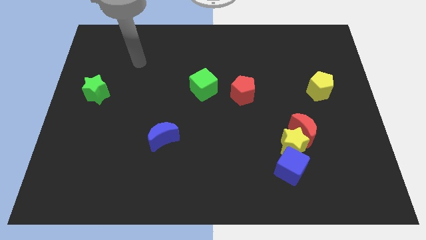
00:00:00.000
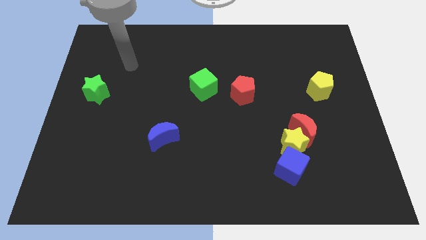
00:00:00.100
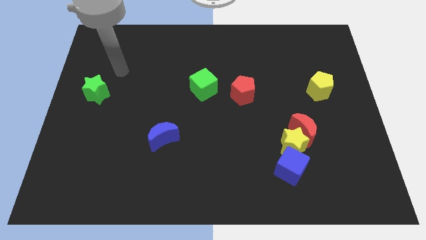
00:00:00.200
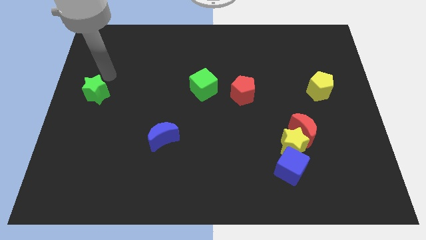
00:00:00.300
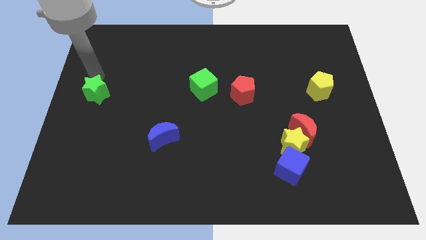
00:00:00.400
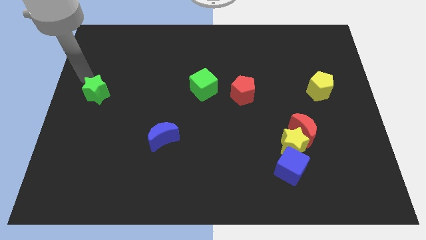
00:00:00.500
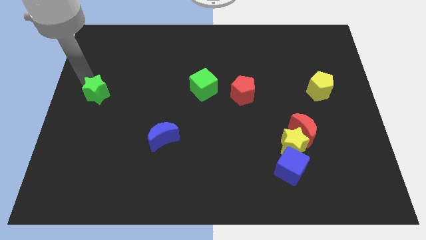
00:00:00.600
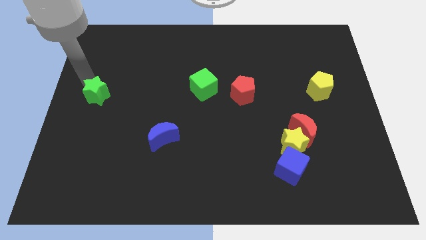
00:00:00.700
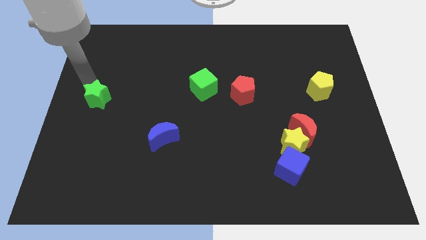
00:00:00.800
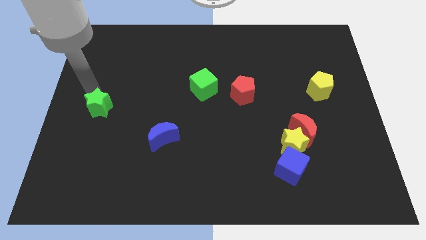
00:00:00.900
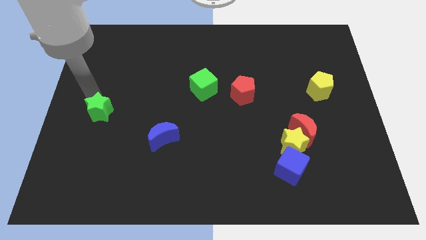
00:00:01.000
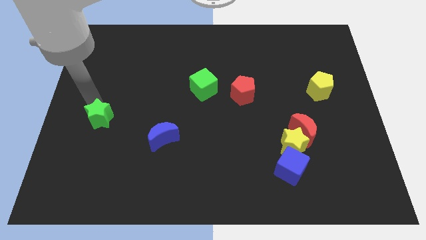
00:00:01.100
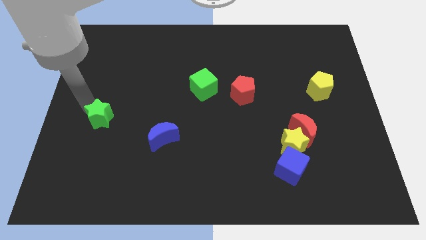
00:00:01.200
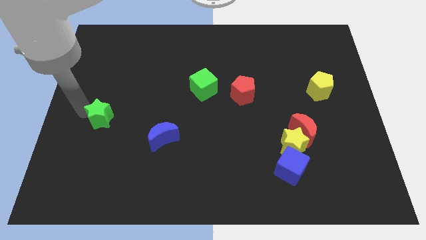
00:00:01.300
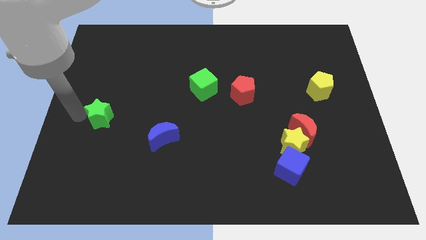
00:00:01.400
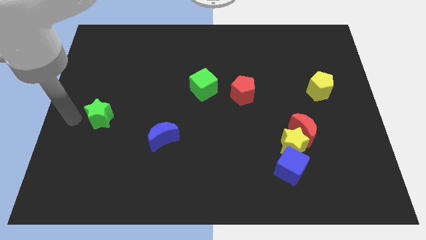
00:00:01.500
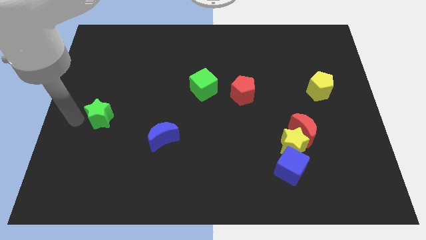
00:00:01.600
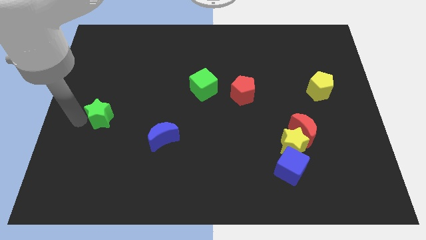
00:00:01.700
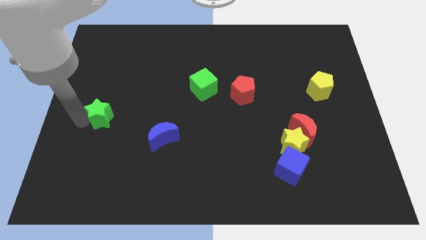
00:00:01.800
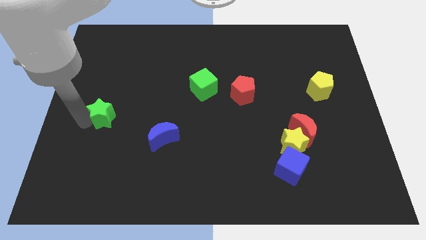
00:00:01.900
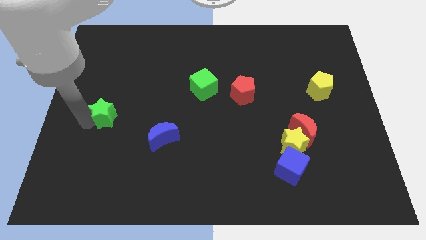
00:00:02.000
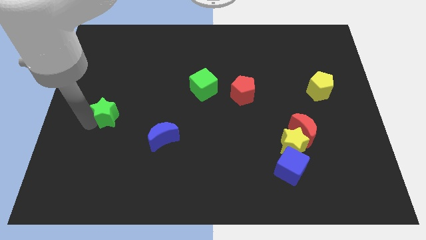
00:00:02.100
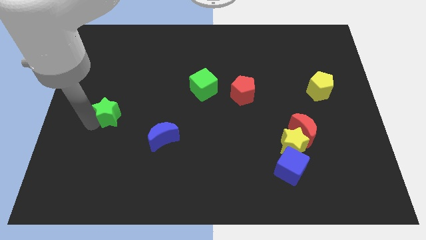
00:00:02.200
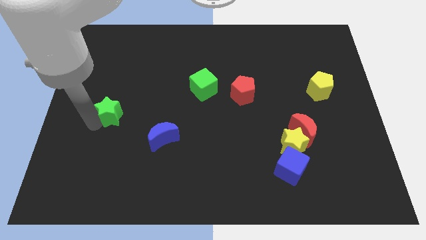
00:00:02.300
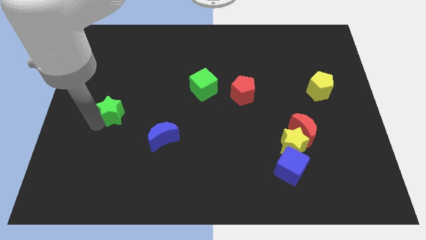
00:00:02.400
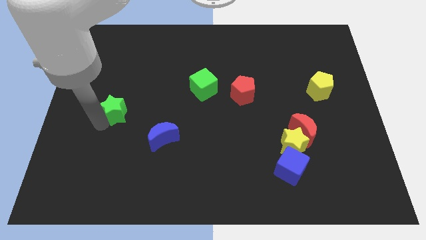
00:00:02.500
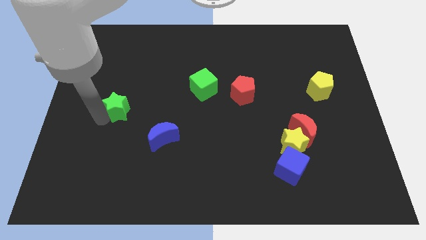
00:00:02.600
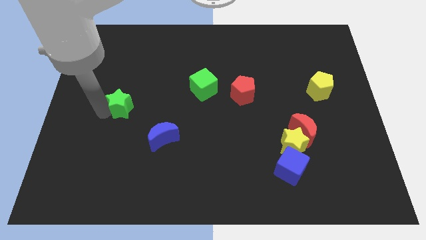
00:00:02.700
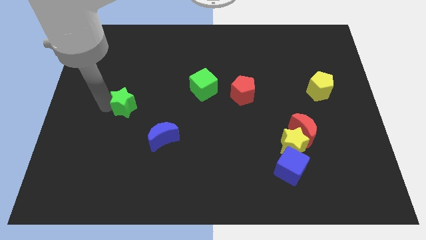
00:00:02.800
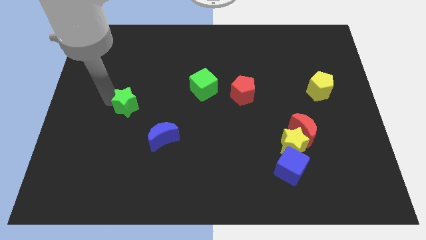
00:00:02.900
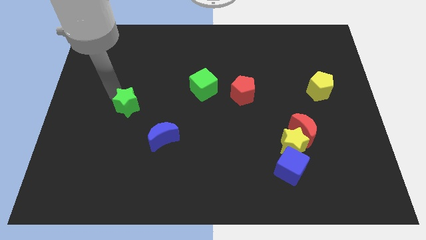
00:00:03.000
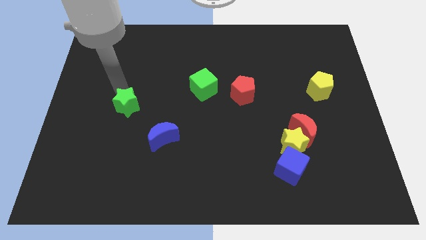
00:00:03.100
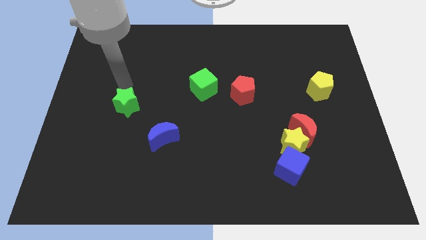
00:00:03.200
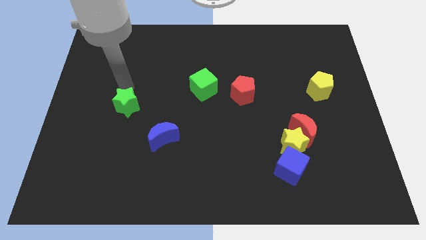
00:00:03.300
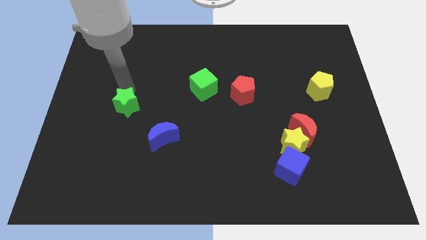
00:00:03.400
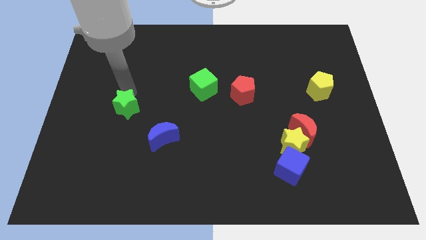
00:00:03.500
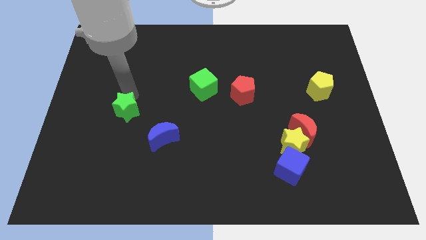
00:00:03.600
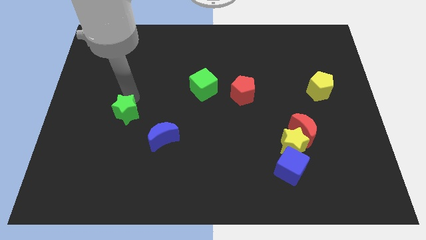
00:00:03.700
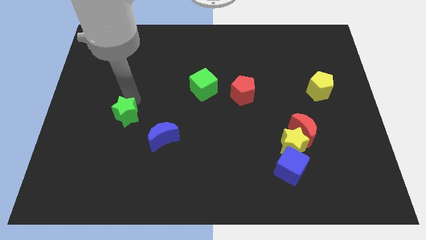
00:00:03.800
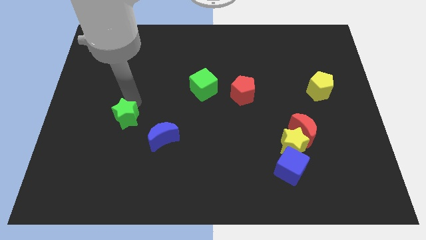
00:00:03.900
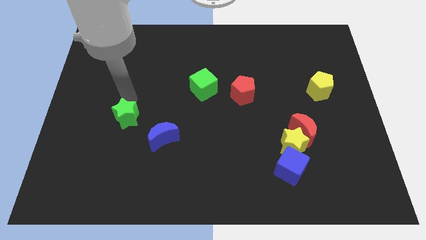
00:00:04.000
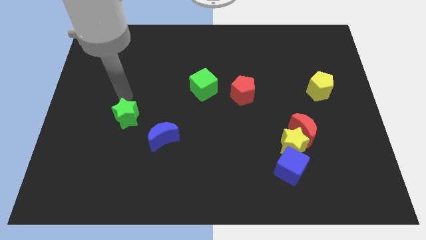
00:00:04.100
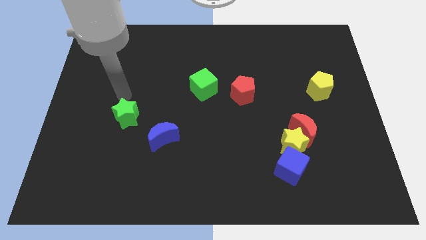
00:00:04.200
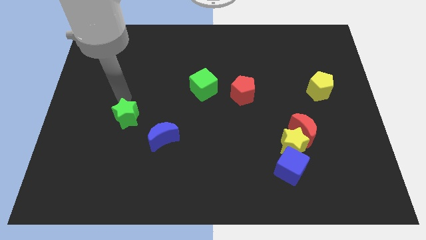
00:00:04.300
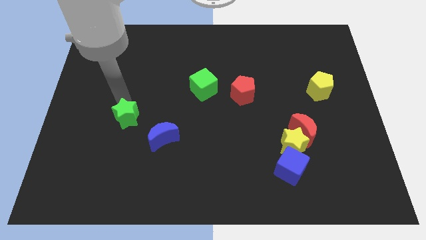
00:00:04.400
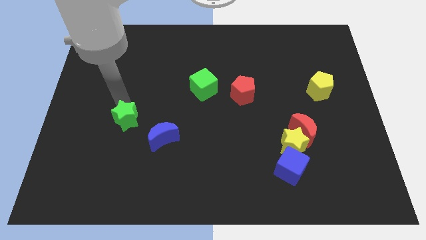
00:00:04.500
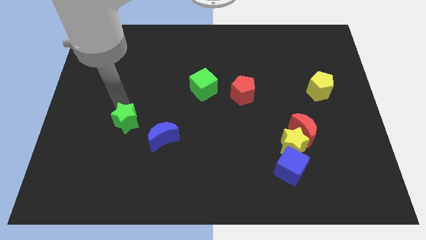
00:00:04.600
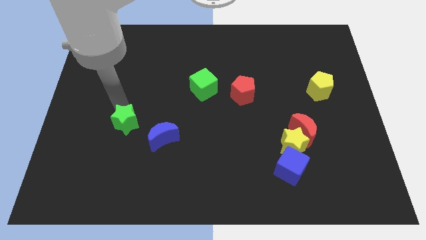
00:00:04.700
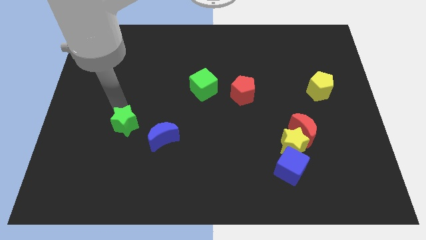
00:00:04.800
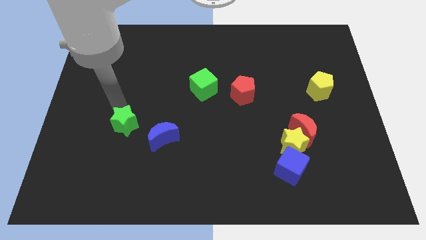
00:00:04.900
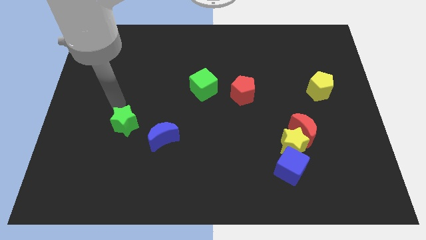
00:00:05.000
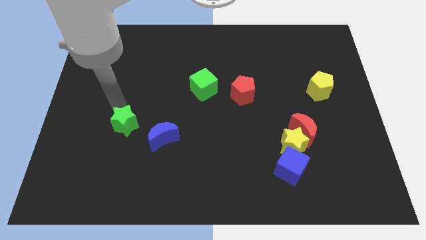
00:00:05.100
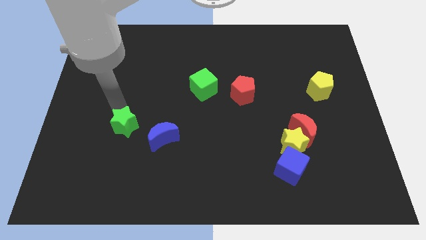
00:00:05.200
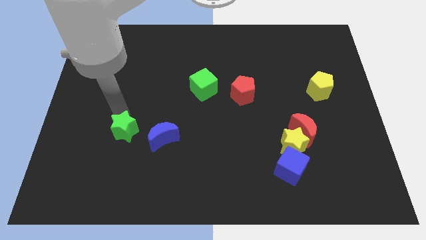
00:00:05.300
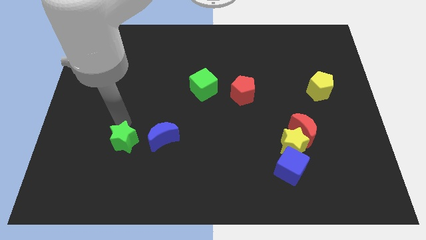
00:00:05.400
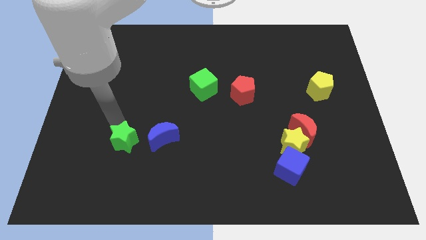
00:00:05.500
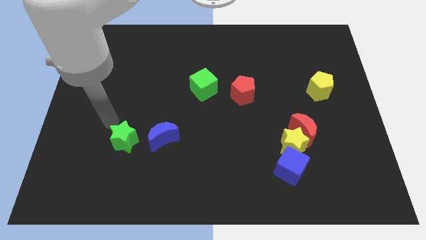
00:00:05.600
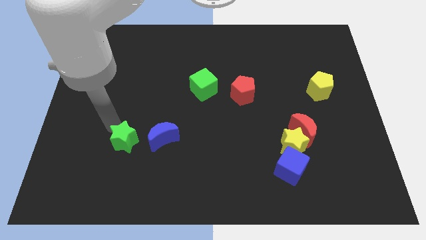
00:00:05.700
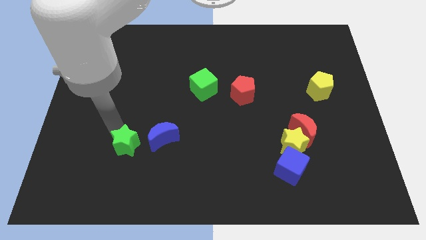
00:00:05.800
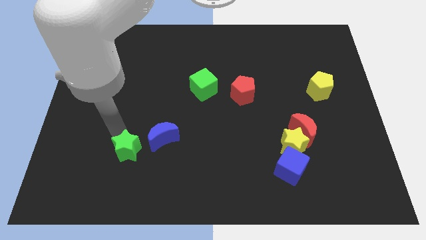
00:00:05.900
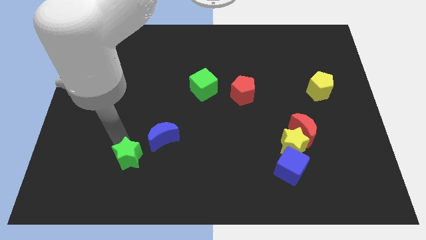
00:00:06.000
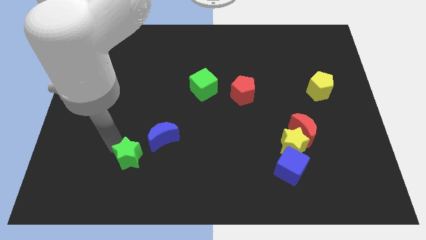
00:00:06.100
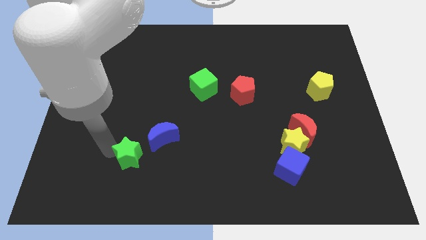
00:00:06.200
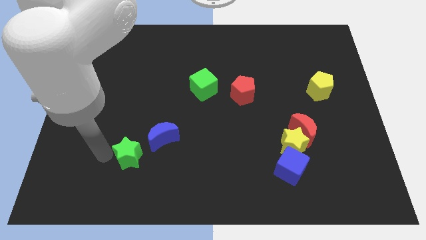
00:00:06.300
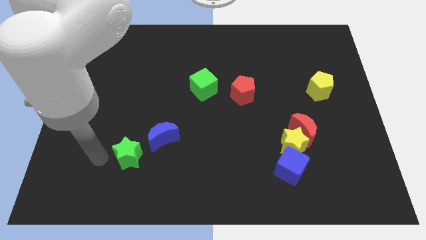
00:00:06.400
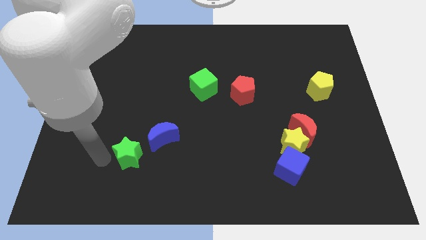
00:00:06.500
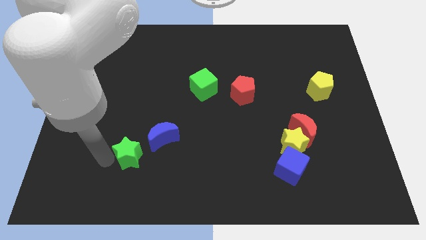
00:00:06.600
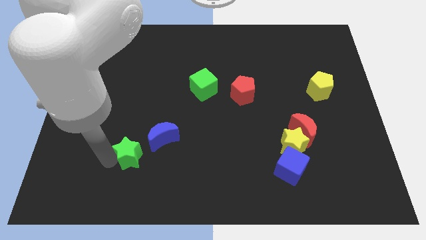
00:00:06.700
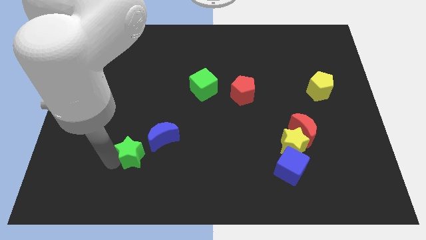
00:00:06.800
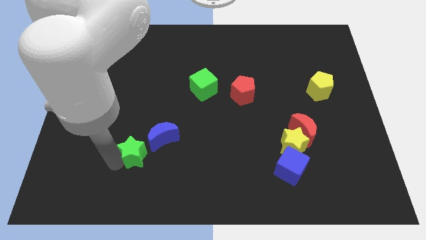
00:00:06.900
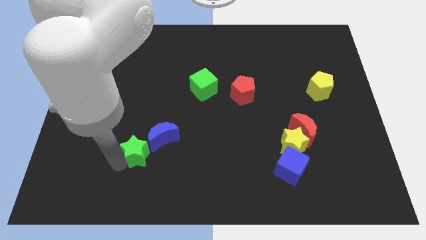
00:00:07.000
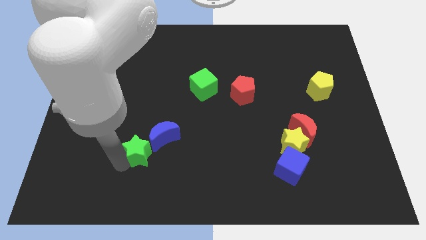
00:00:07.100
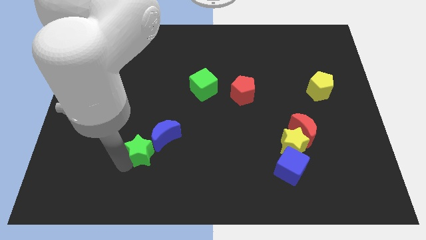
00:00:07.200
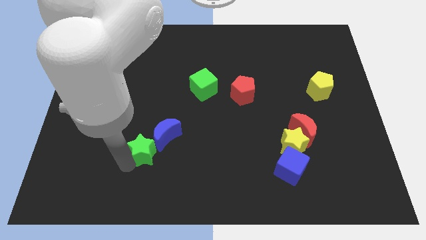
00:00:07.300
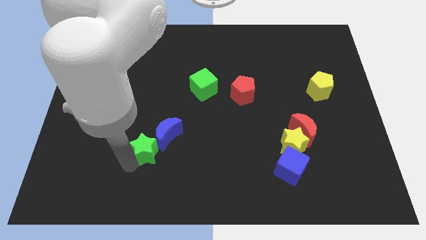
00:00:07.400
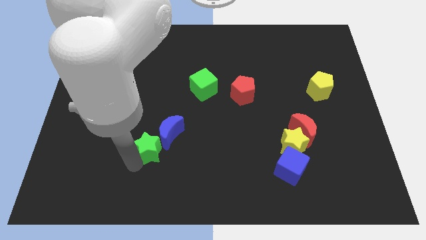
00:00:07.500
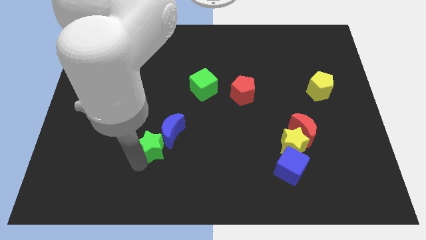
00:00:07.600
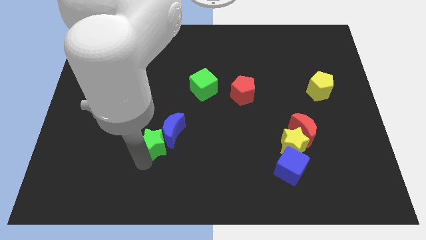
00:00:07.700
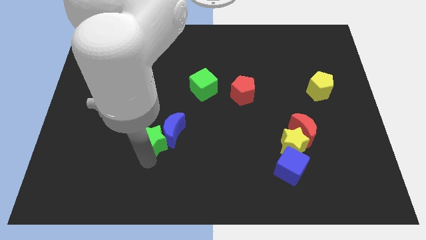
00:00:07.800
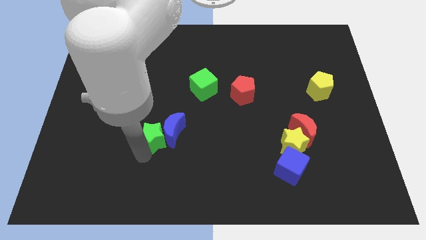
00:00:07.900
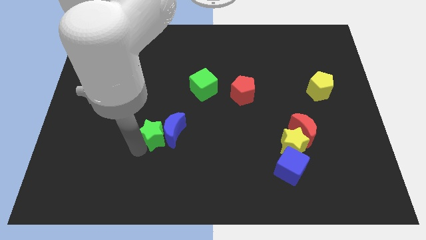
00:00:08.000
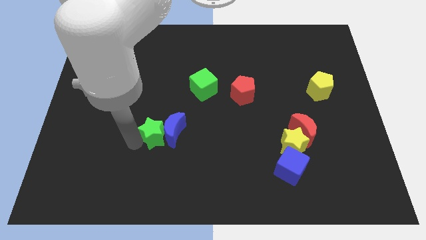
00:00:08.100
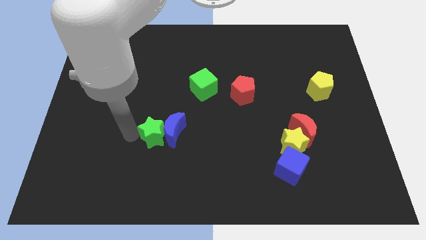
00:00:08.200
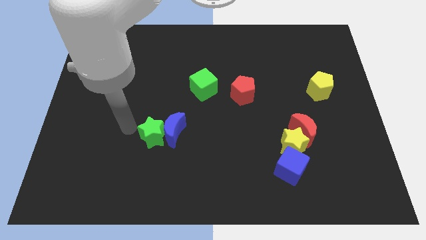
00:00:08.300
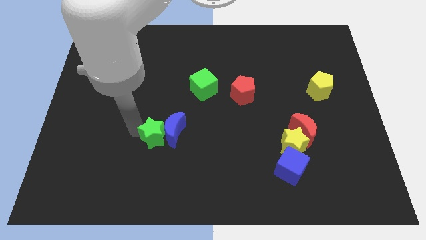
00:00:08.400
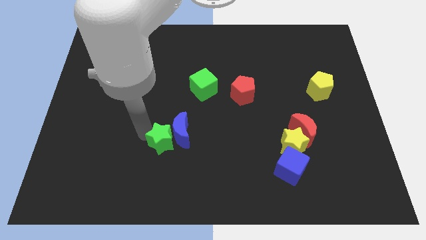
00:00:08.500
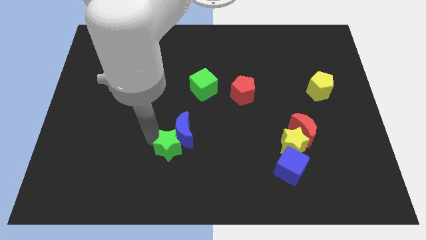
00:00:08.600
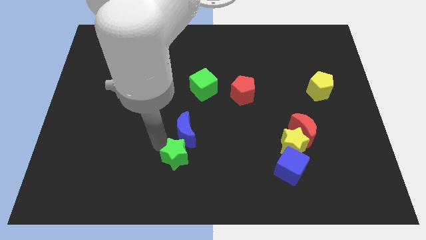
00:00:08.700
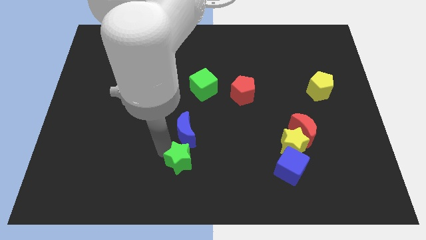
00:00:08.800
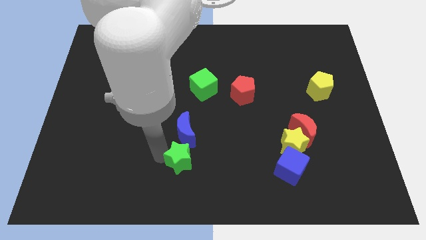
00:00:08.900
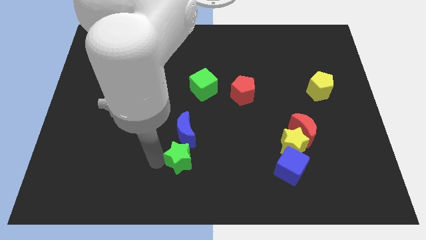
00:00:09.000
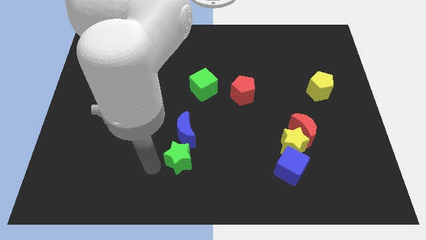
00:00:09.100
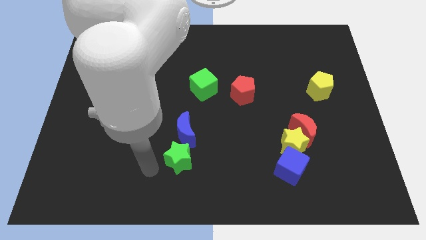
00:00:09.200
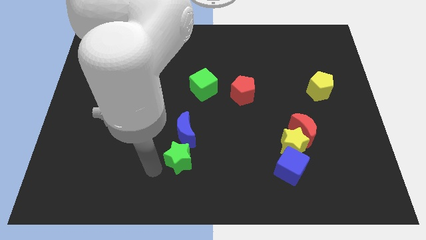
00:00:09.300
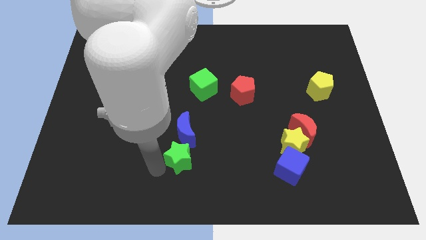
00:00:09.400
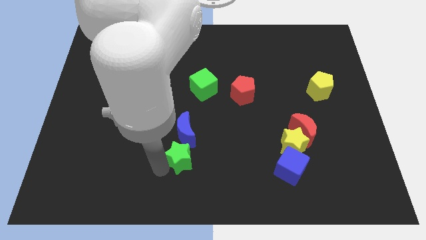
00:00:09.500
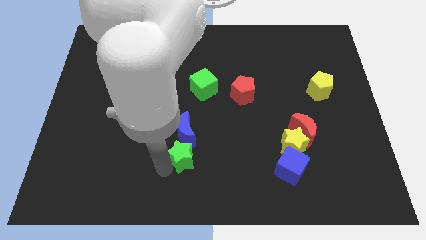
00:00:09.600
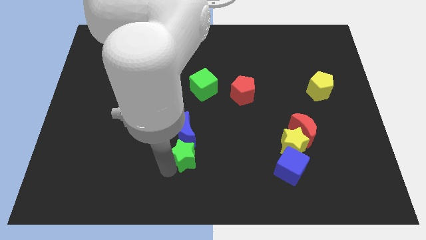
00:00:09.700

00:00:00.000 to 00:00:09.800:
slide the green star to the bottom right of the blue moon
